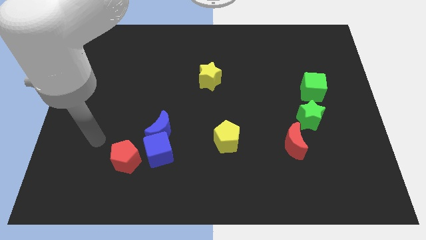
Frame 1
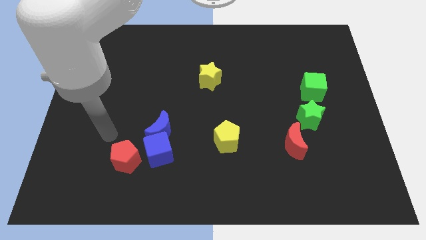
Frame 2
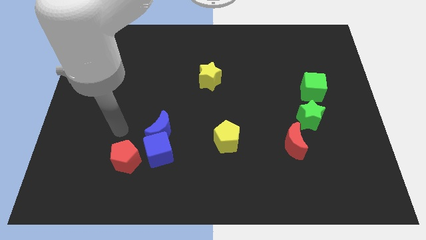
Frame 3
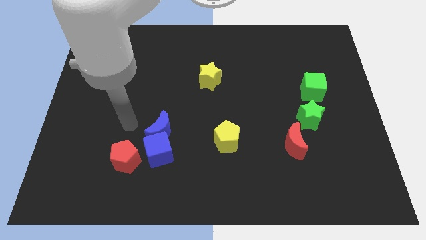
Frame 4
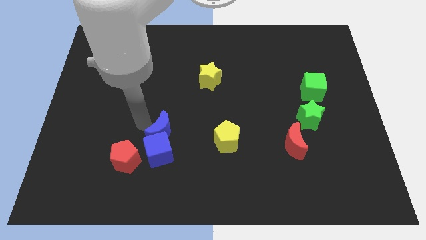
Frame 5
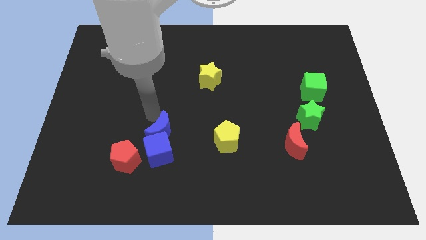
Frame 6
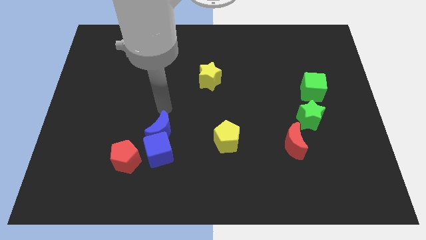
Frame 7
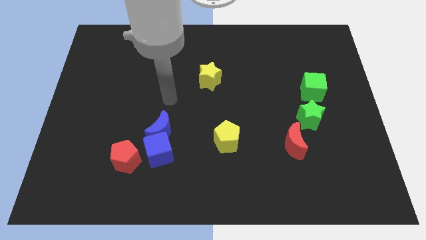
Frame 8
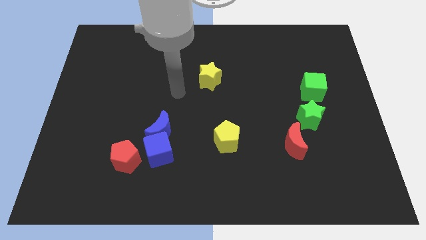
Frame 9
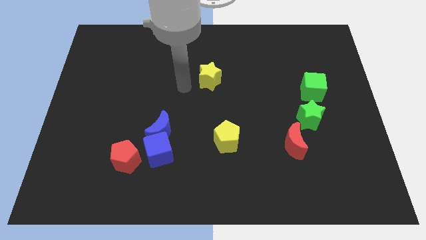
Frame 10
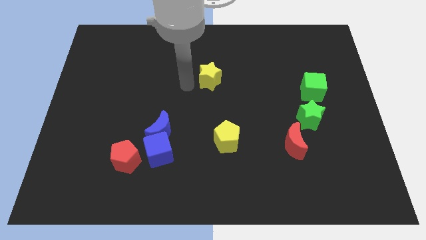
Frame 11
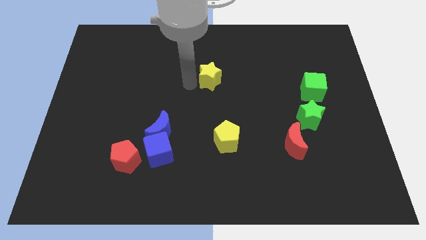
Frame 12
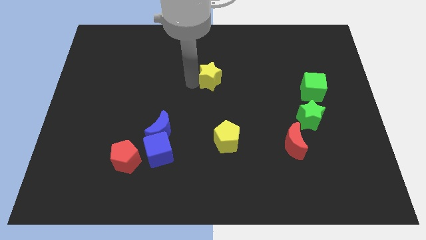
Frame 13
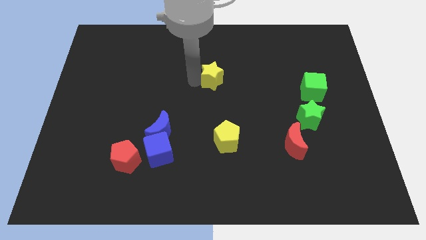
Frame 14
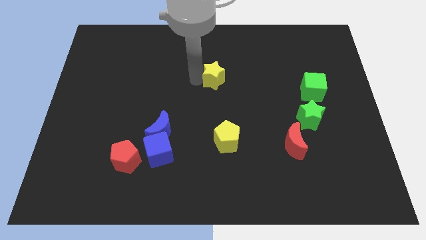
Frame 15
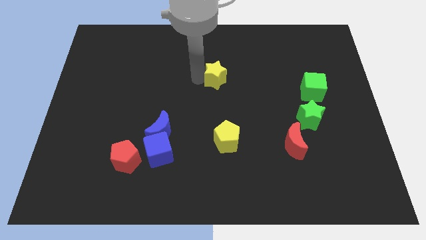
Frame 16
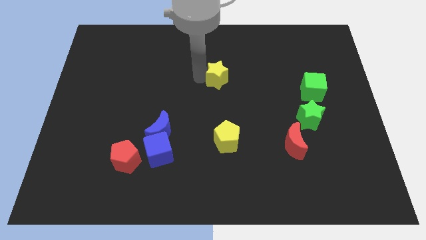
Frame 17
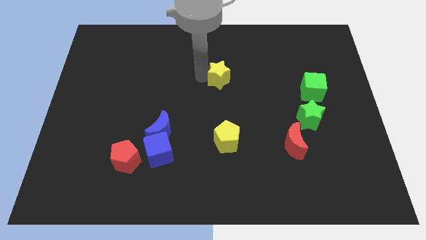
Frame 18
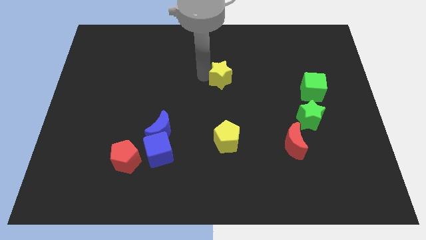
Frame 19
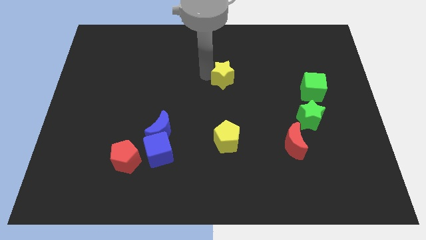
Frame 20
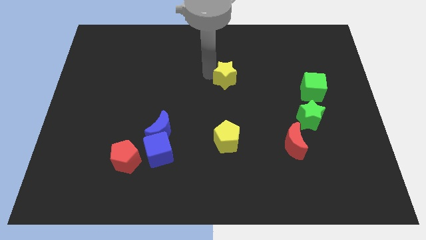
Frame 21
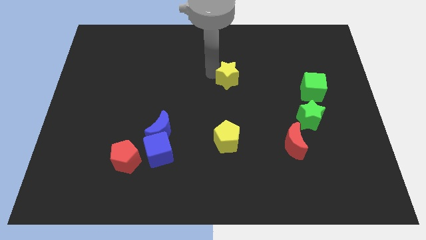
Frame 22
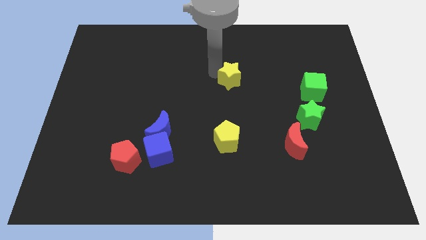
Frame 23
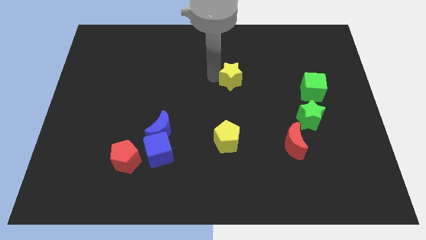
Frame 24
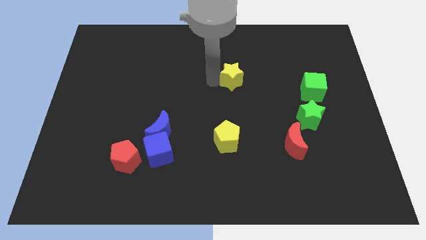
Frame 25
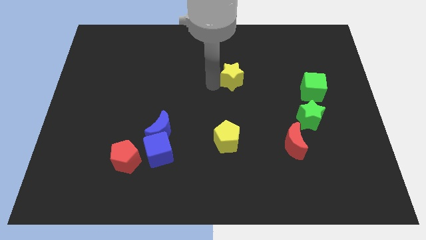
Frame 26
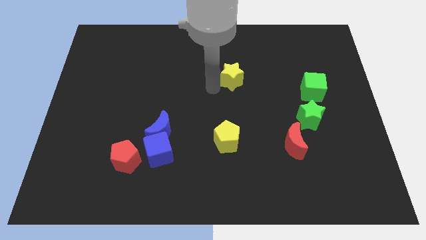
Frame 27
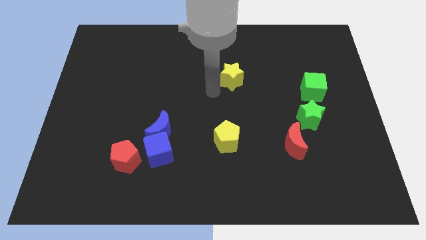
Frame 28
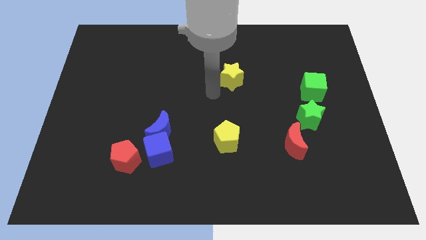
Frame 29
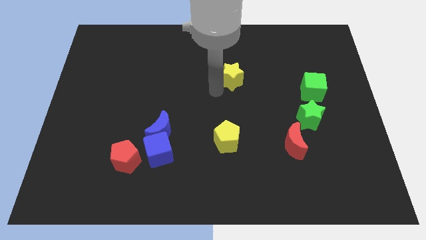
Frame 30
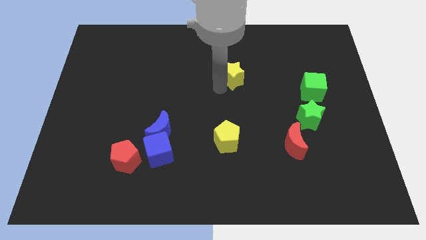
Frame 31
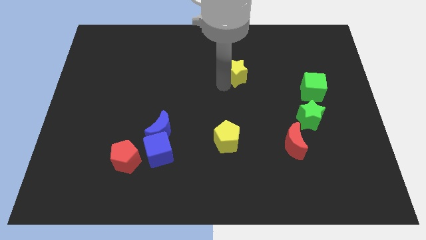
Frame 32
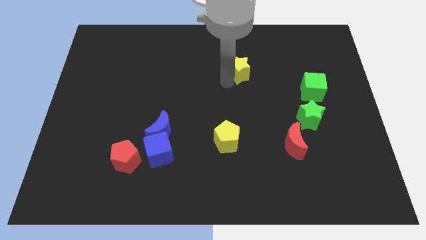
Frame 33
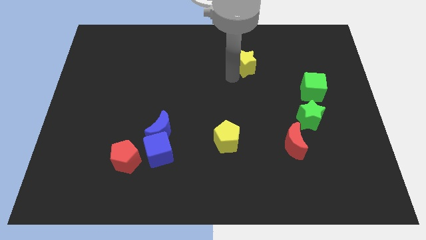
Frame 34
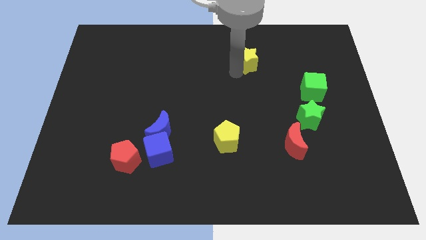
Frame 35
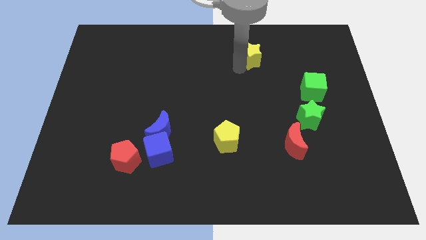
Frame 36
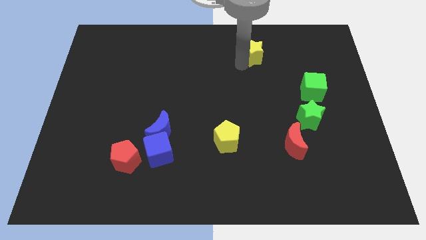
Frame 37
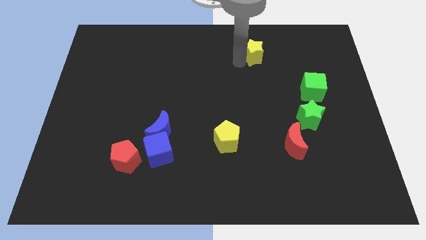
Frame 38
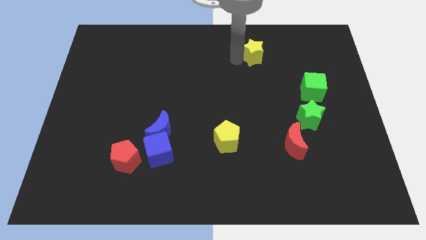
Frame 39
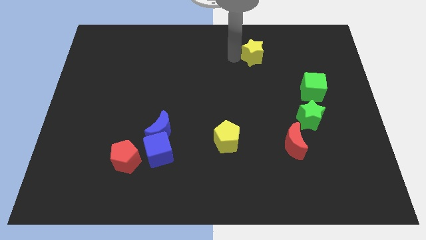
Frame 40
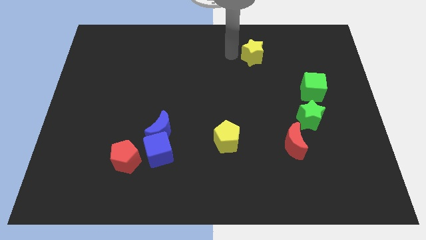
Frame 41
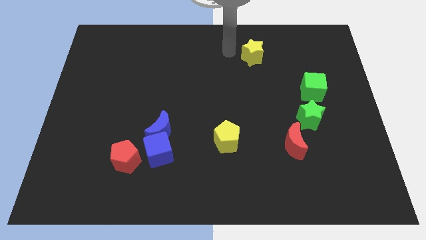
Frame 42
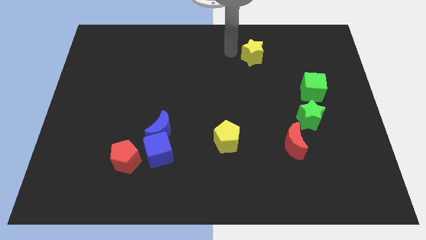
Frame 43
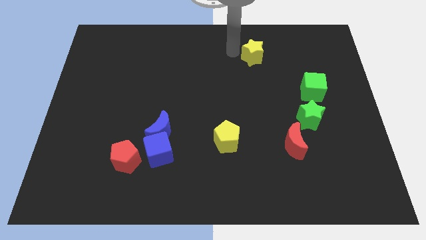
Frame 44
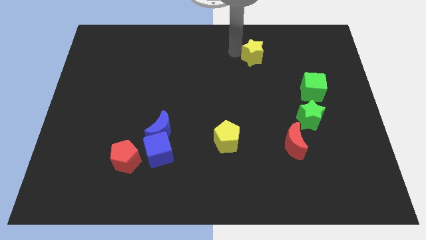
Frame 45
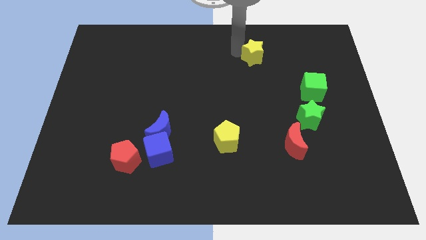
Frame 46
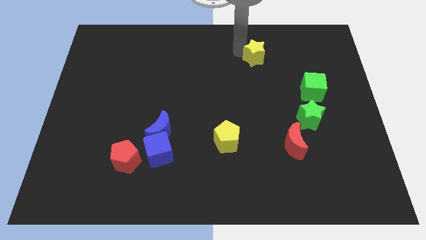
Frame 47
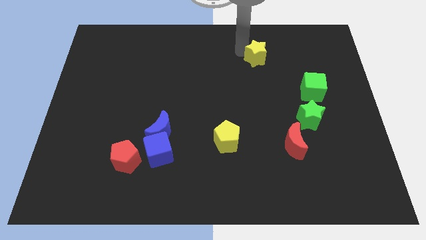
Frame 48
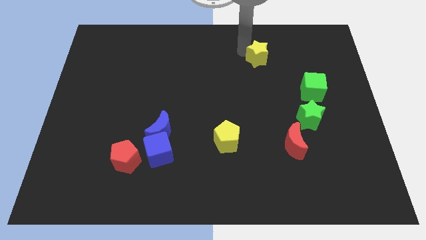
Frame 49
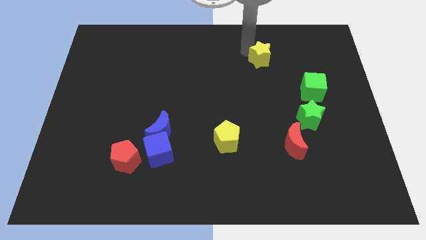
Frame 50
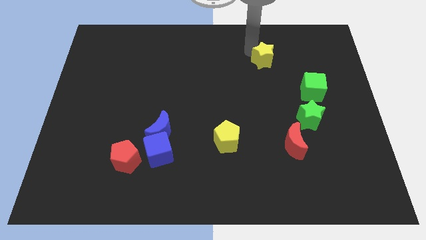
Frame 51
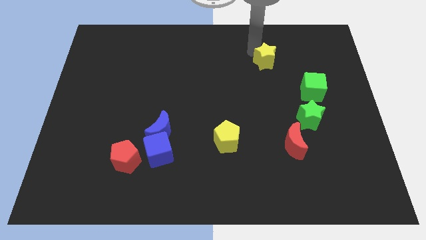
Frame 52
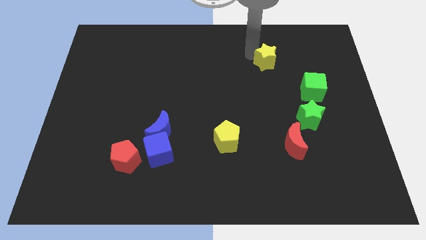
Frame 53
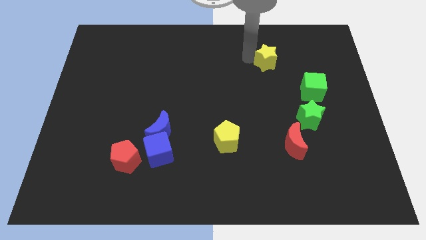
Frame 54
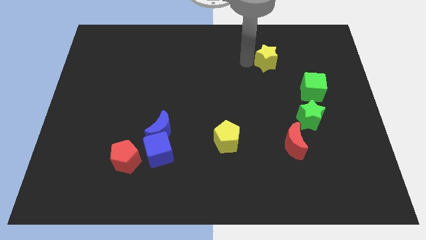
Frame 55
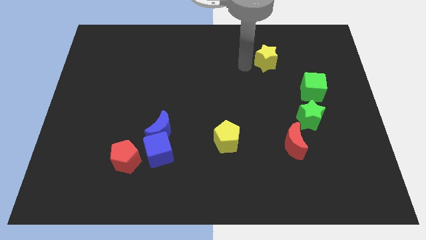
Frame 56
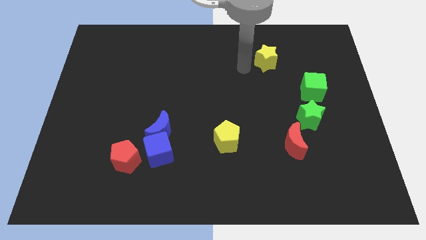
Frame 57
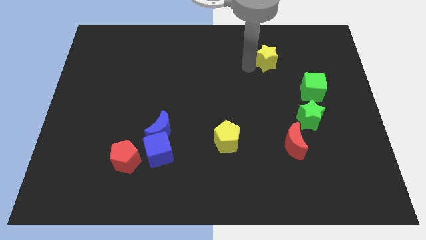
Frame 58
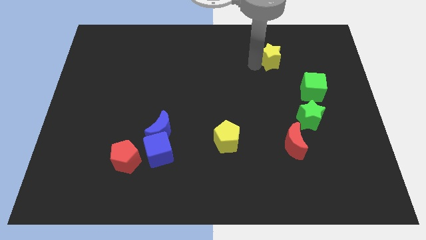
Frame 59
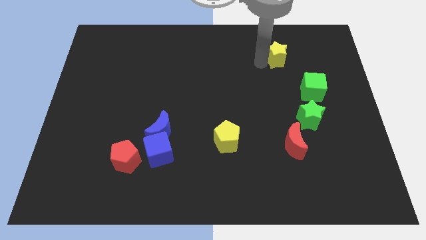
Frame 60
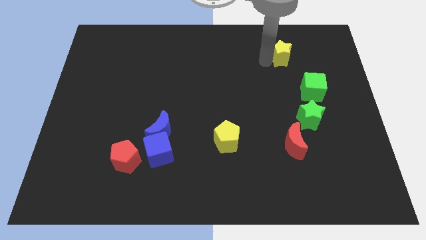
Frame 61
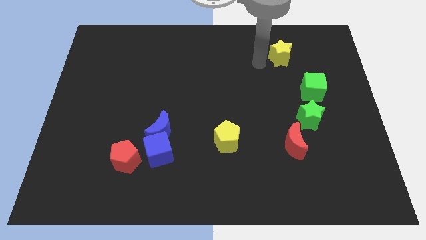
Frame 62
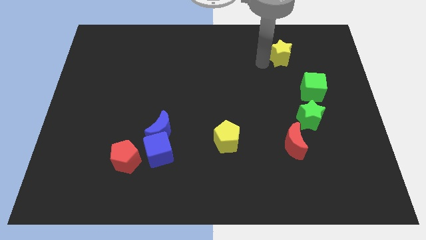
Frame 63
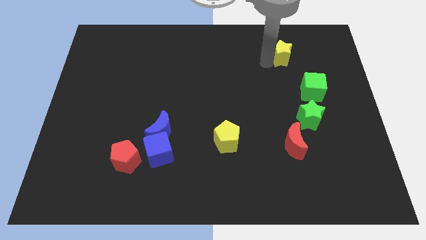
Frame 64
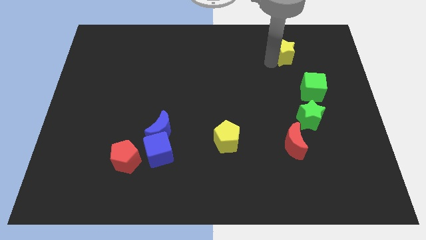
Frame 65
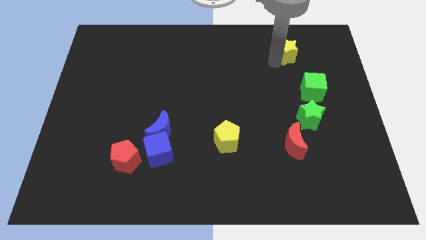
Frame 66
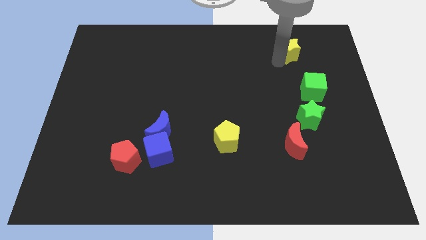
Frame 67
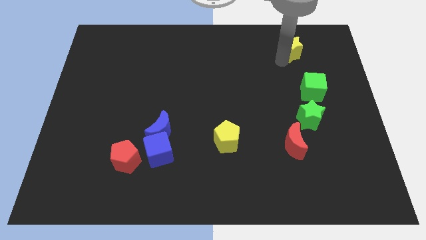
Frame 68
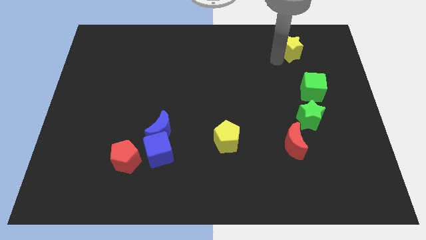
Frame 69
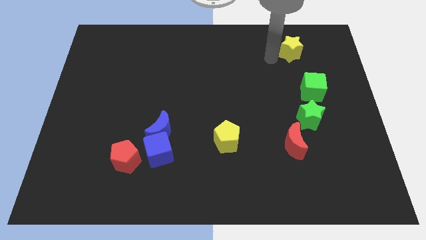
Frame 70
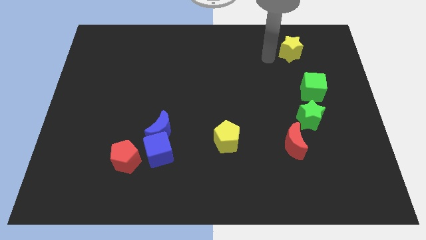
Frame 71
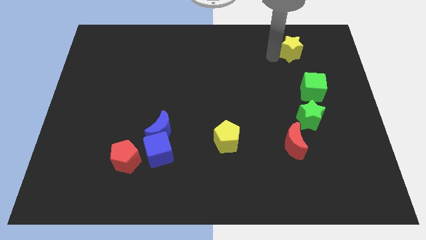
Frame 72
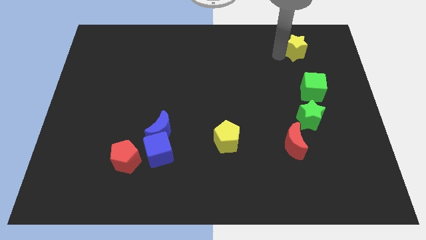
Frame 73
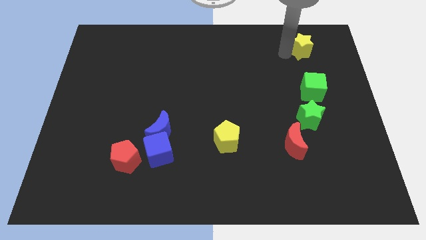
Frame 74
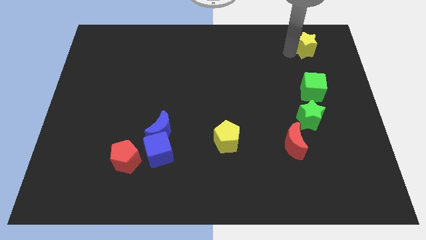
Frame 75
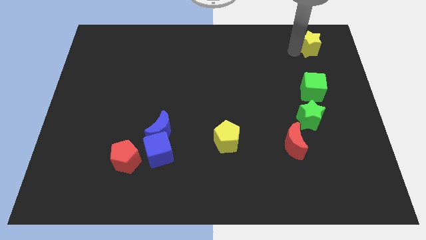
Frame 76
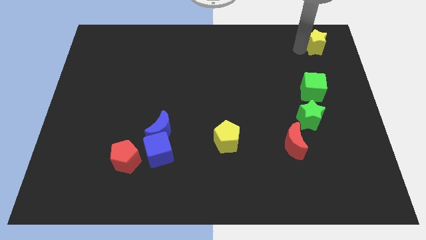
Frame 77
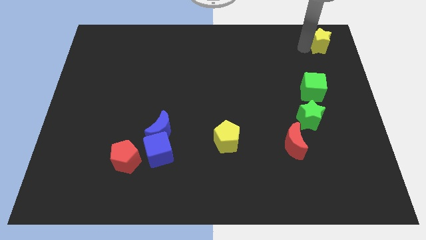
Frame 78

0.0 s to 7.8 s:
put the yellow star to the top right
